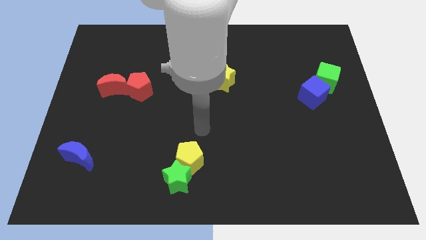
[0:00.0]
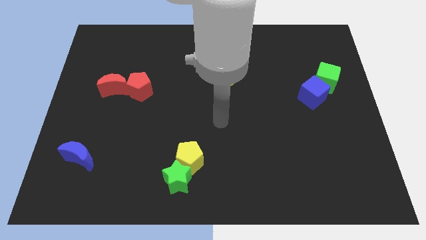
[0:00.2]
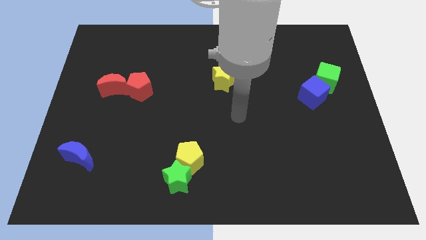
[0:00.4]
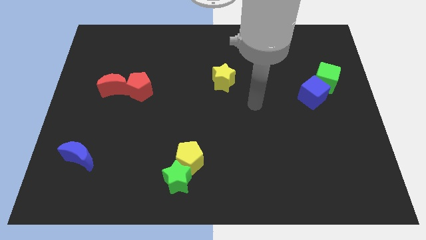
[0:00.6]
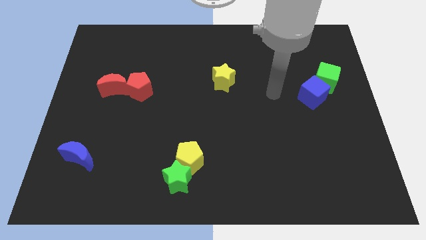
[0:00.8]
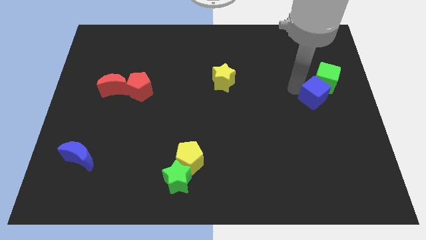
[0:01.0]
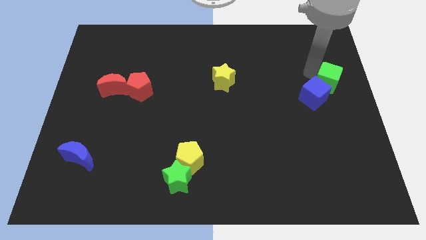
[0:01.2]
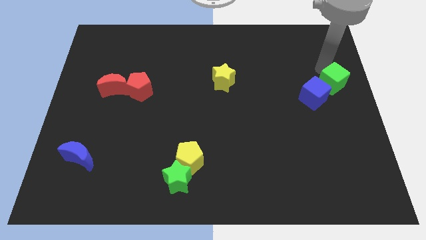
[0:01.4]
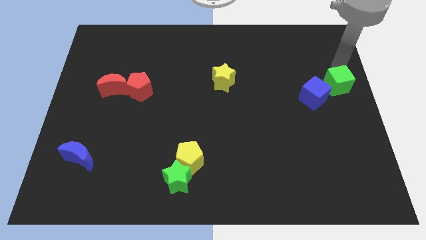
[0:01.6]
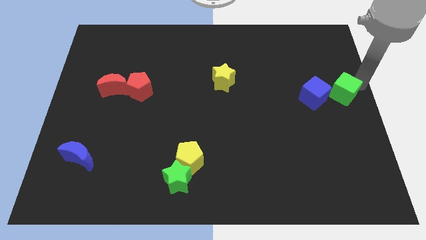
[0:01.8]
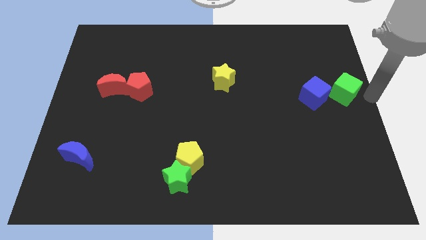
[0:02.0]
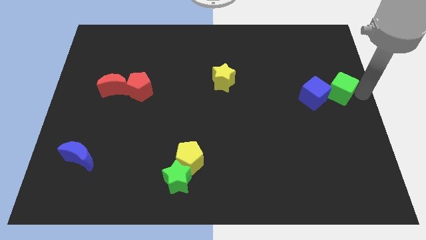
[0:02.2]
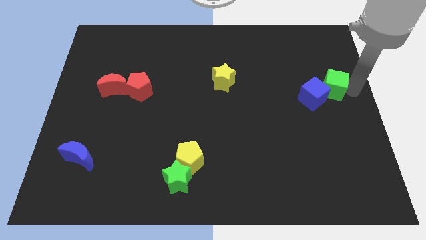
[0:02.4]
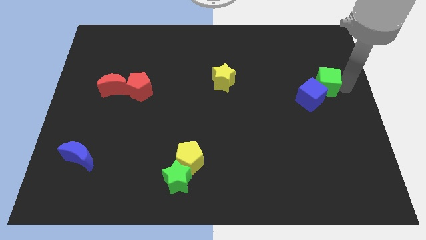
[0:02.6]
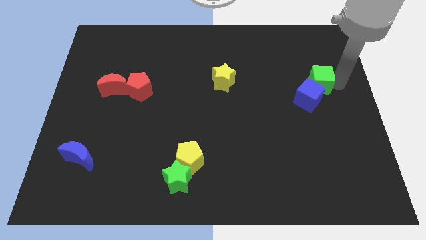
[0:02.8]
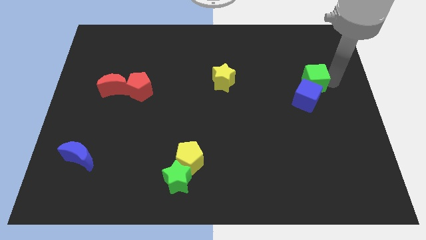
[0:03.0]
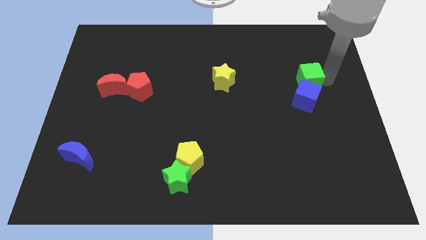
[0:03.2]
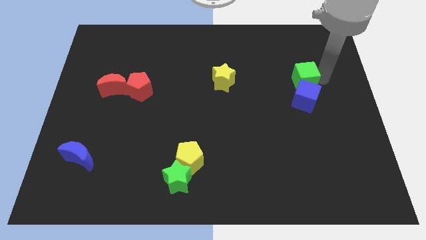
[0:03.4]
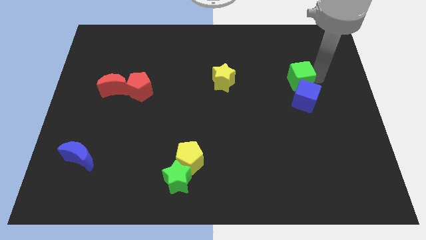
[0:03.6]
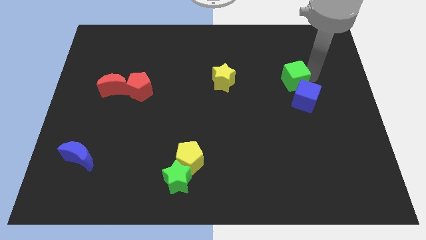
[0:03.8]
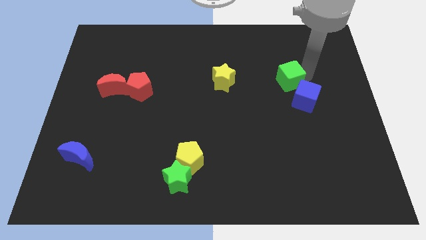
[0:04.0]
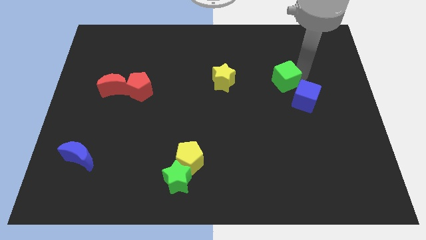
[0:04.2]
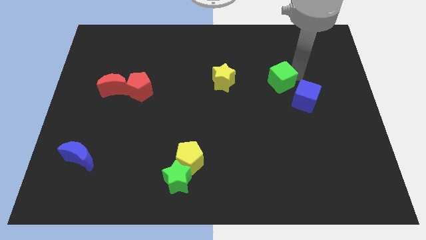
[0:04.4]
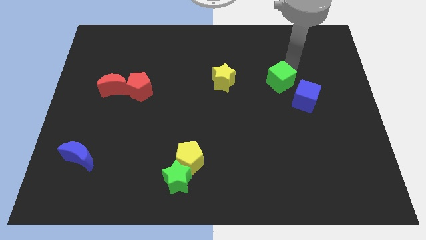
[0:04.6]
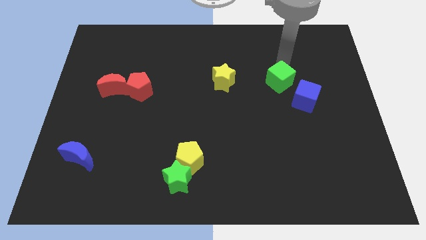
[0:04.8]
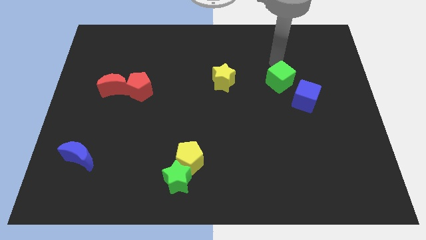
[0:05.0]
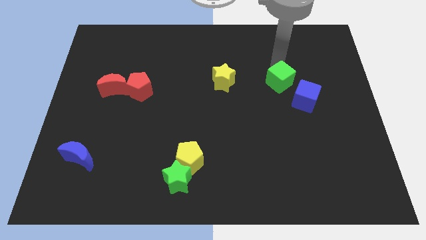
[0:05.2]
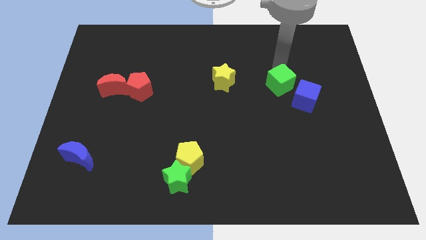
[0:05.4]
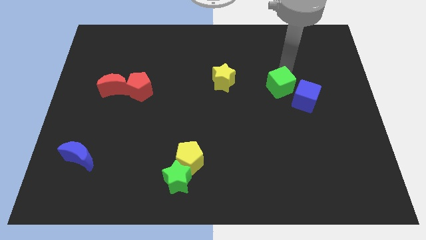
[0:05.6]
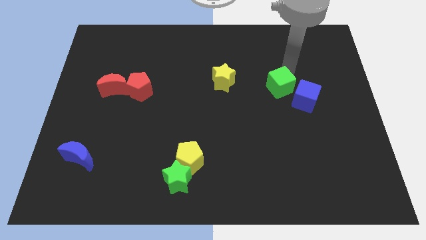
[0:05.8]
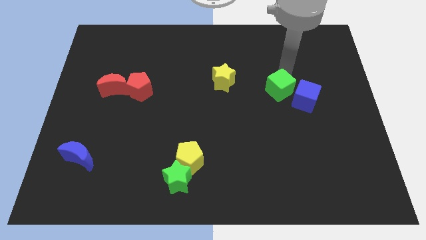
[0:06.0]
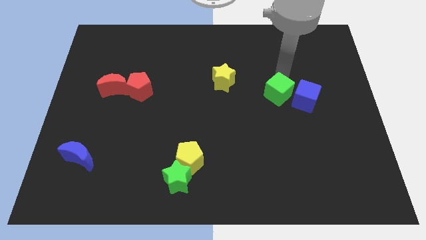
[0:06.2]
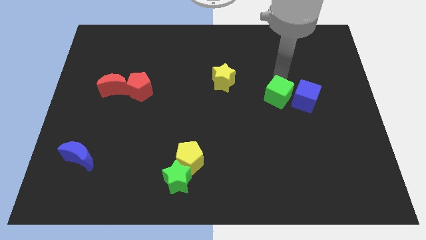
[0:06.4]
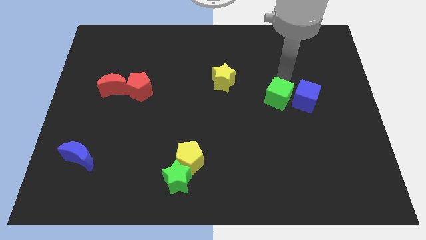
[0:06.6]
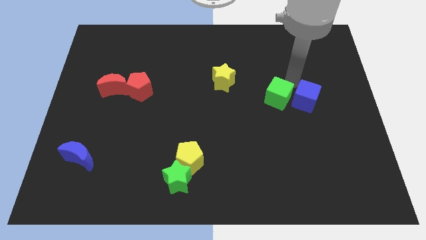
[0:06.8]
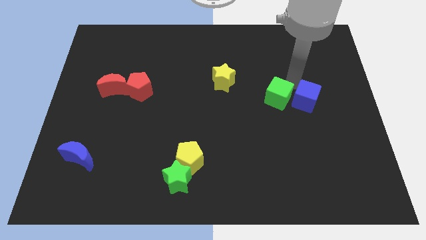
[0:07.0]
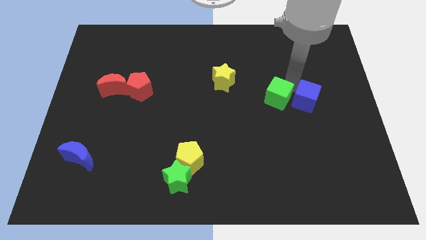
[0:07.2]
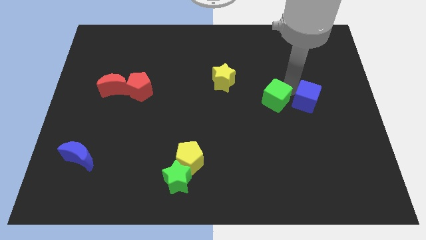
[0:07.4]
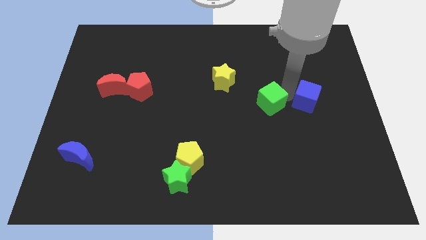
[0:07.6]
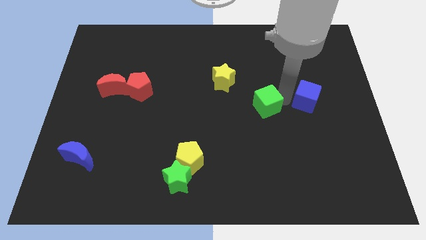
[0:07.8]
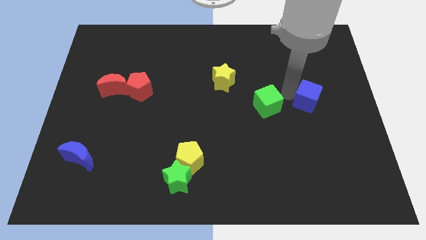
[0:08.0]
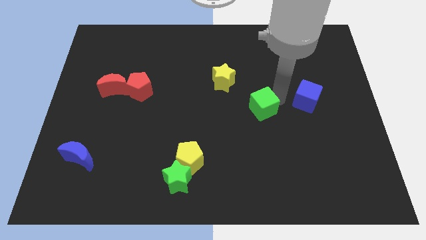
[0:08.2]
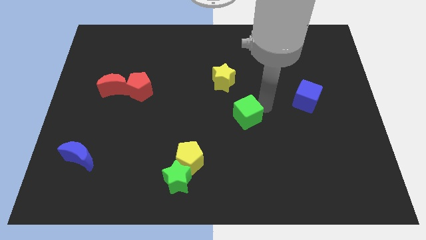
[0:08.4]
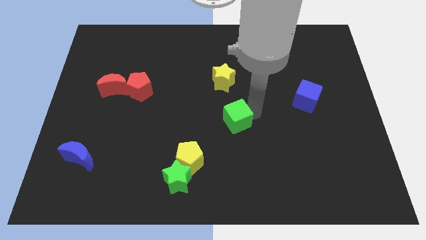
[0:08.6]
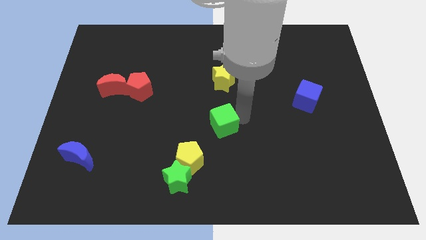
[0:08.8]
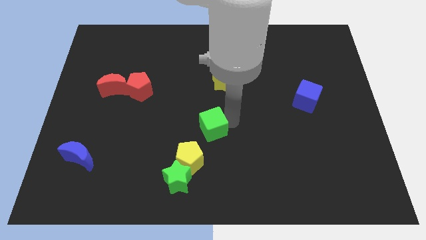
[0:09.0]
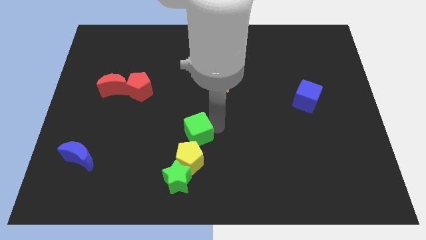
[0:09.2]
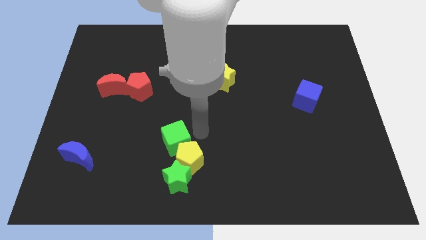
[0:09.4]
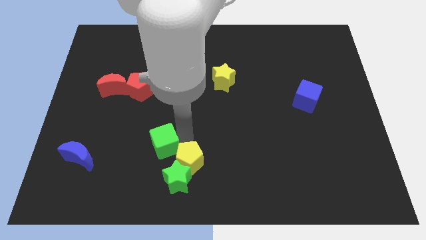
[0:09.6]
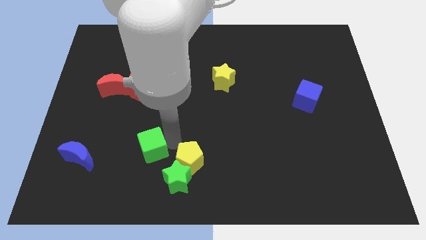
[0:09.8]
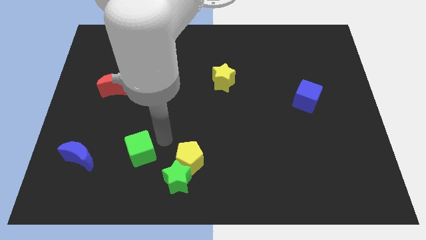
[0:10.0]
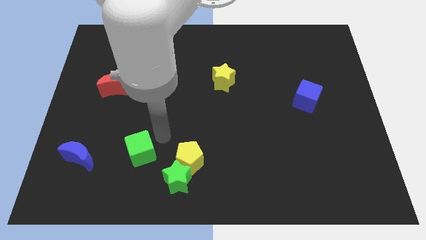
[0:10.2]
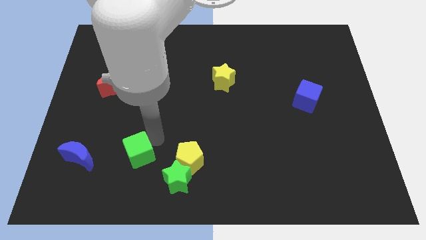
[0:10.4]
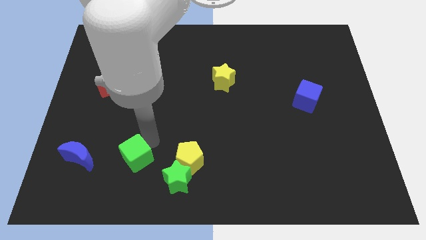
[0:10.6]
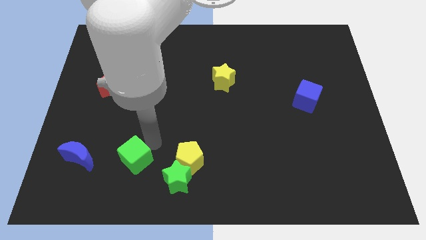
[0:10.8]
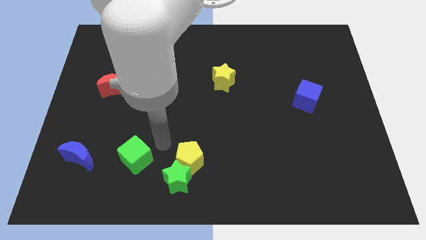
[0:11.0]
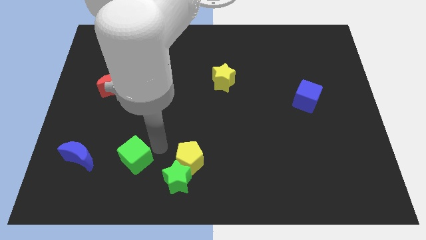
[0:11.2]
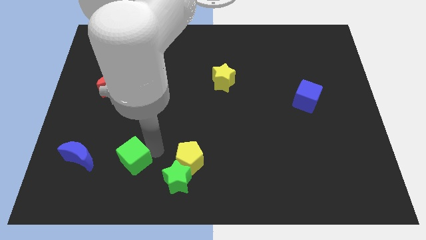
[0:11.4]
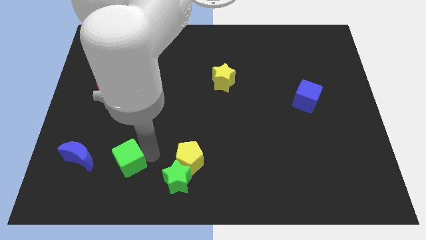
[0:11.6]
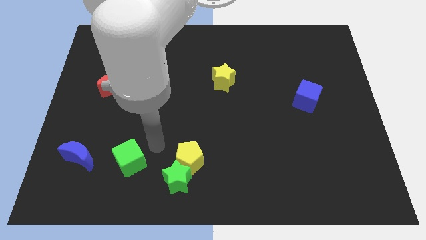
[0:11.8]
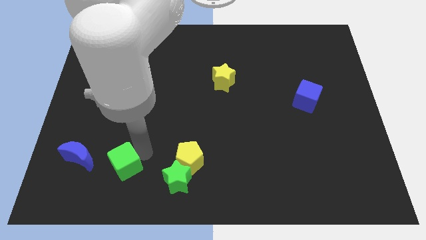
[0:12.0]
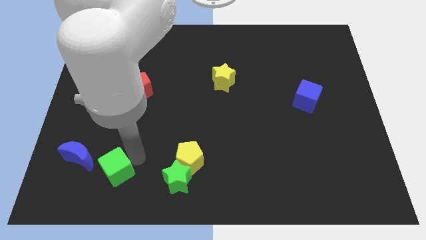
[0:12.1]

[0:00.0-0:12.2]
move the green cube diagonally down and to the right of the blue moon

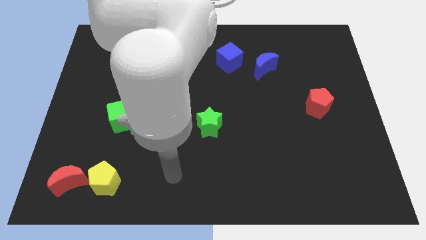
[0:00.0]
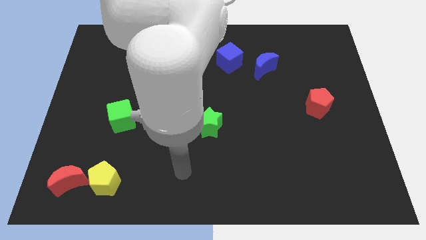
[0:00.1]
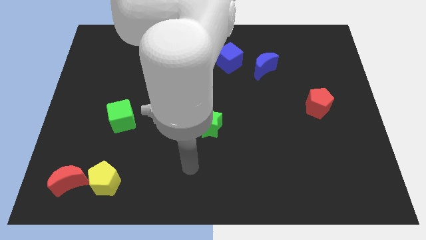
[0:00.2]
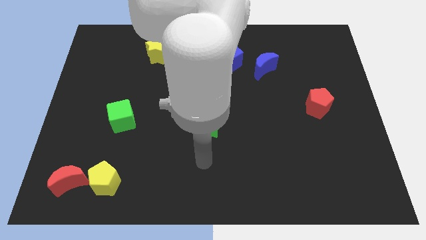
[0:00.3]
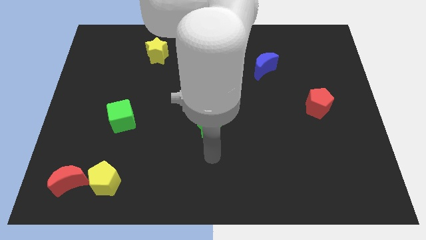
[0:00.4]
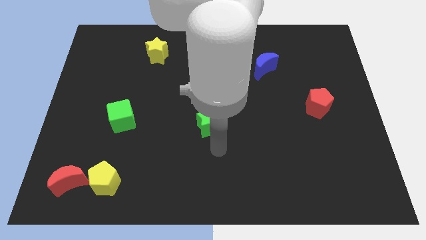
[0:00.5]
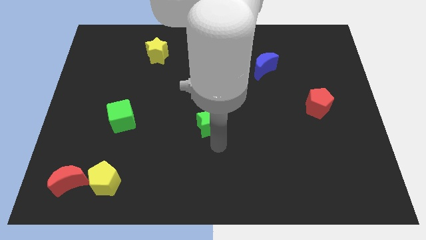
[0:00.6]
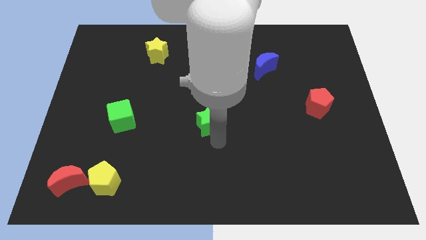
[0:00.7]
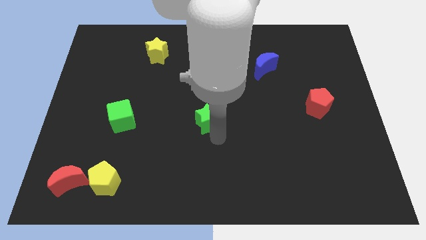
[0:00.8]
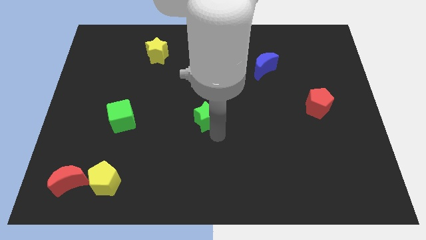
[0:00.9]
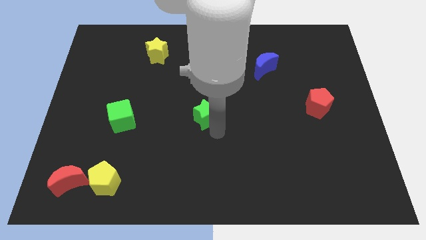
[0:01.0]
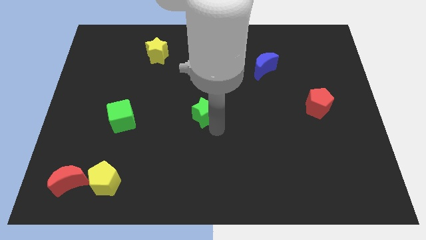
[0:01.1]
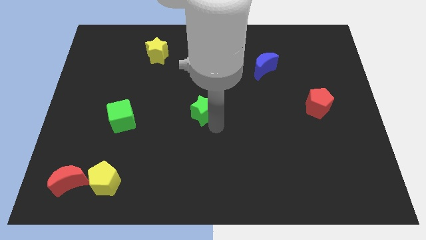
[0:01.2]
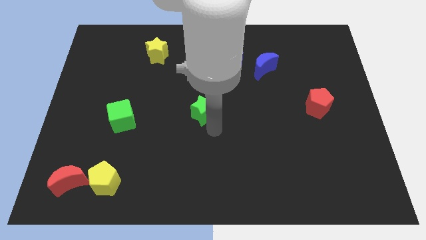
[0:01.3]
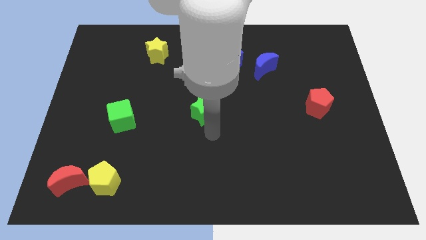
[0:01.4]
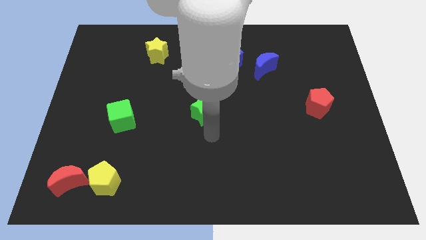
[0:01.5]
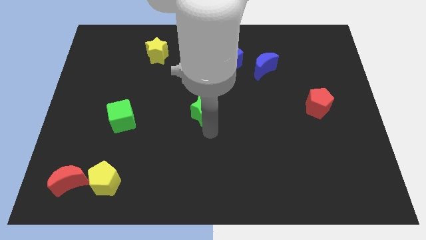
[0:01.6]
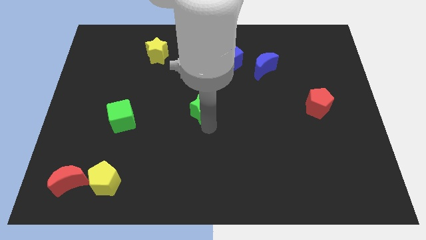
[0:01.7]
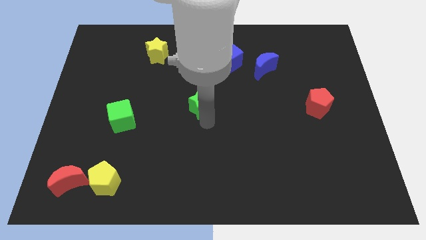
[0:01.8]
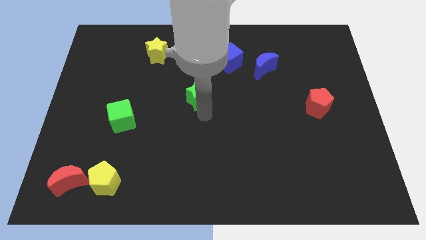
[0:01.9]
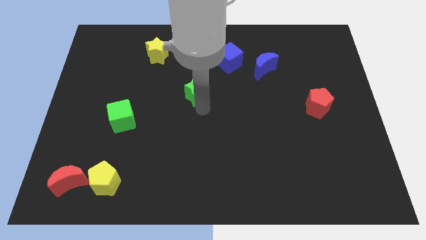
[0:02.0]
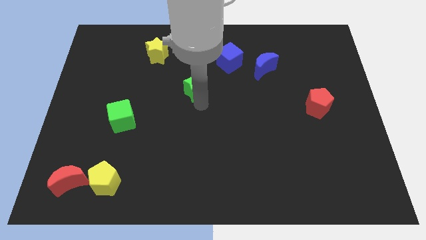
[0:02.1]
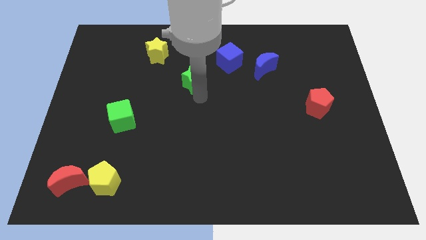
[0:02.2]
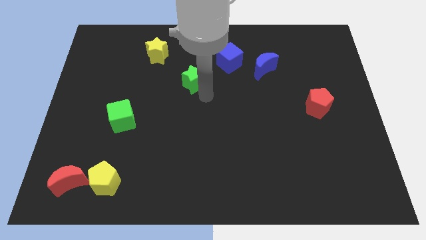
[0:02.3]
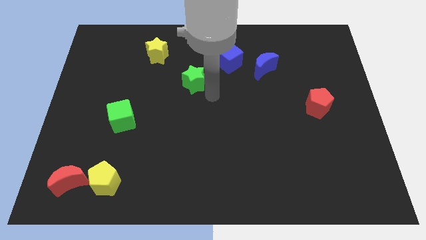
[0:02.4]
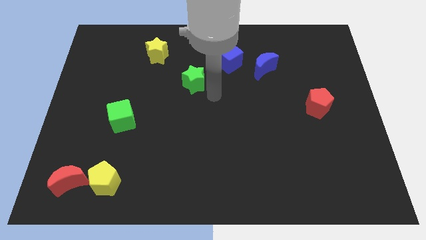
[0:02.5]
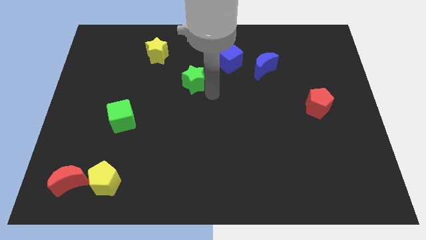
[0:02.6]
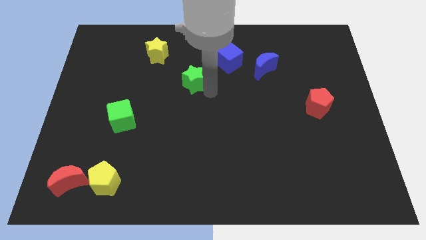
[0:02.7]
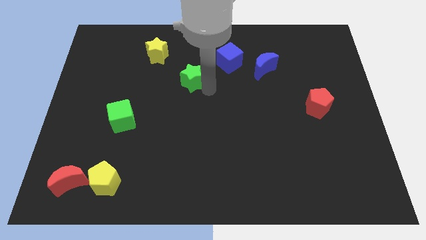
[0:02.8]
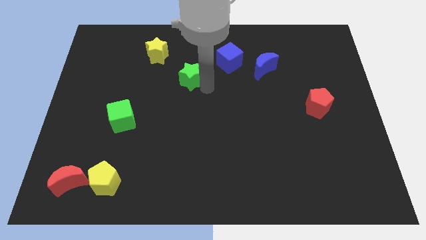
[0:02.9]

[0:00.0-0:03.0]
put the green star to the bottom right of the yellow star
